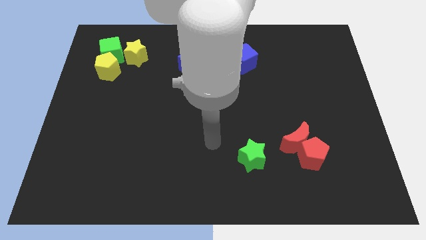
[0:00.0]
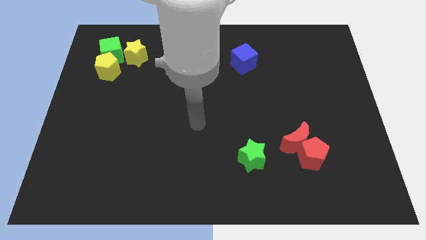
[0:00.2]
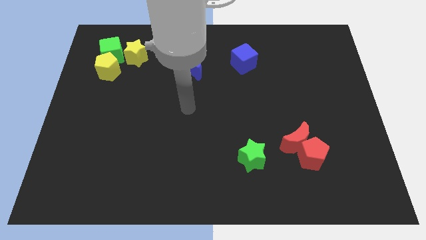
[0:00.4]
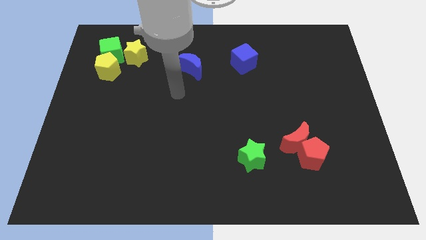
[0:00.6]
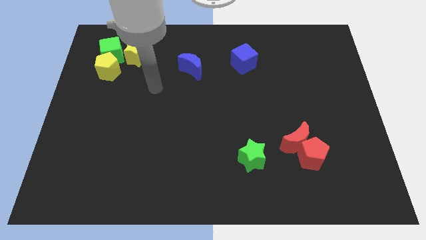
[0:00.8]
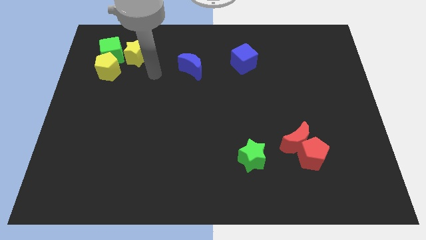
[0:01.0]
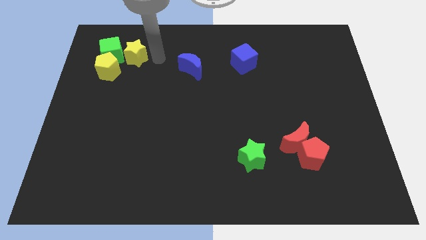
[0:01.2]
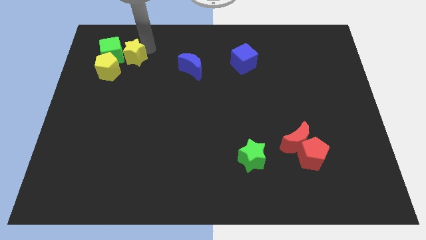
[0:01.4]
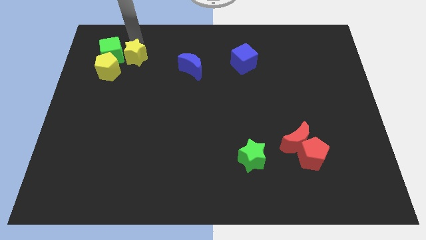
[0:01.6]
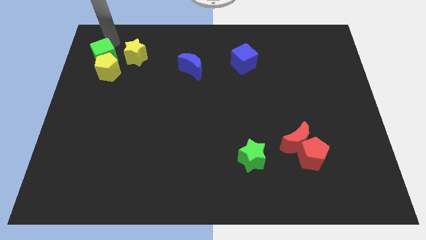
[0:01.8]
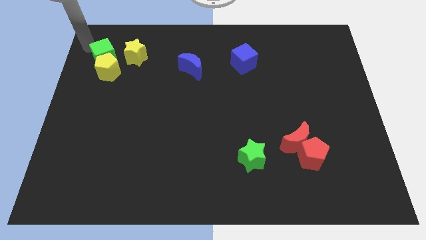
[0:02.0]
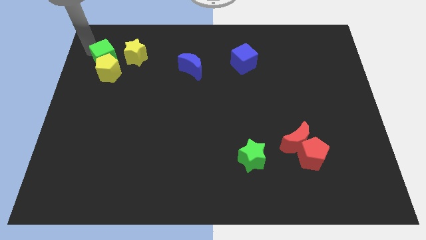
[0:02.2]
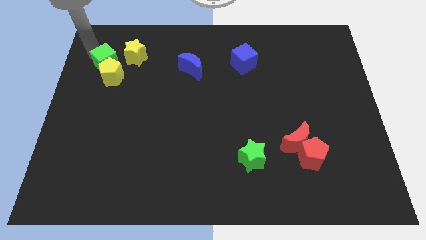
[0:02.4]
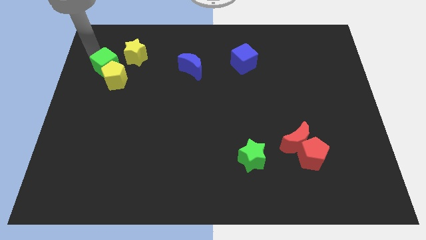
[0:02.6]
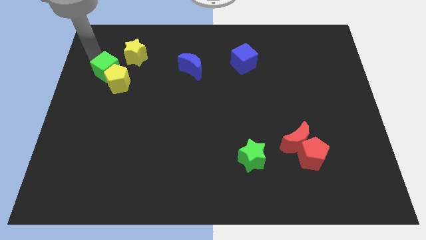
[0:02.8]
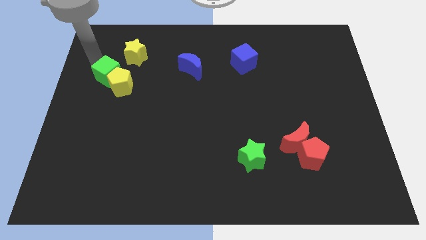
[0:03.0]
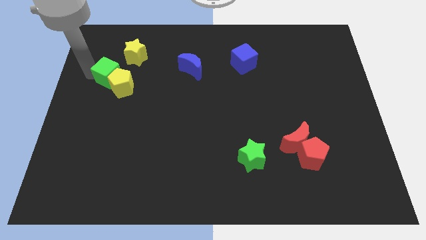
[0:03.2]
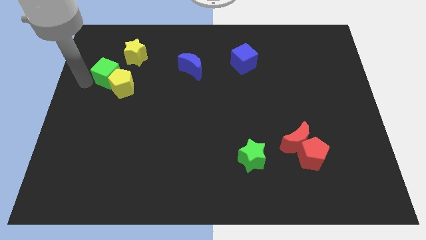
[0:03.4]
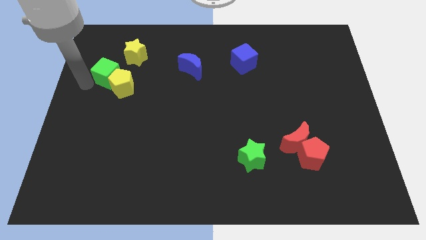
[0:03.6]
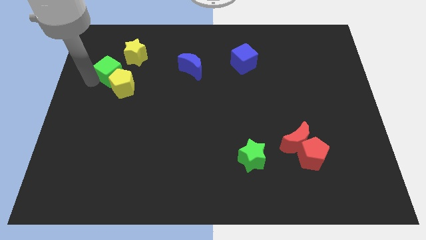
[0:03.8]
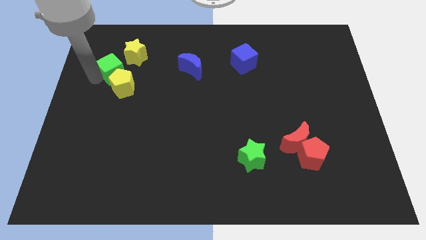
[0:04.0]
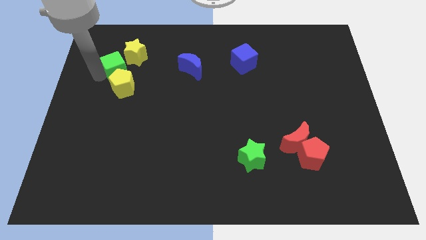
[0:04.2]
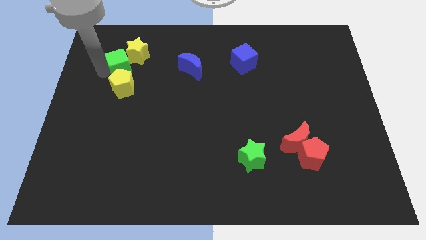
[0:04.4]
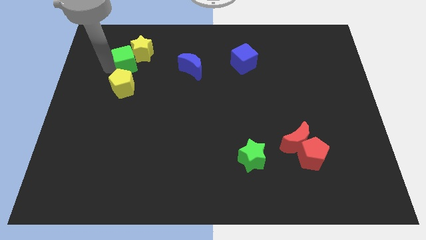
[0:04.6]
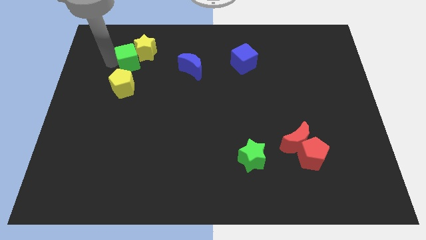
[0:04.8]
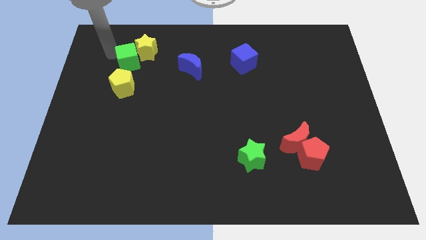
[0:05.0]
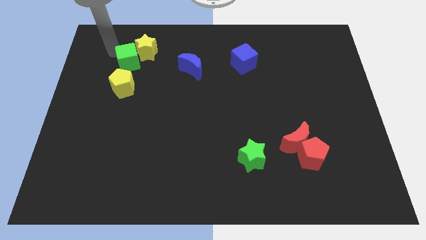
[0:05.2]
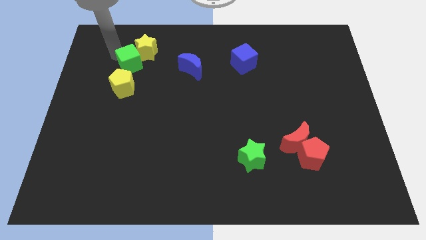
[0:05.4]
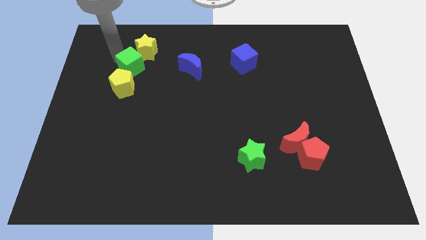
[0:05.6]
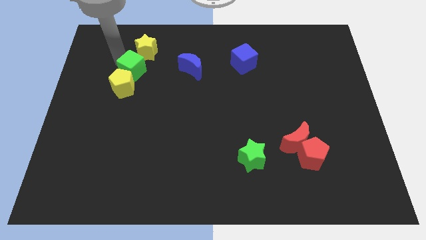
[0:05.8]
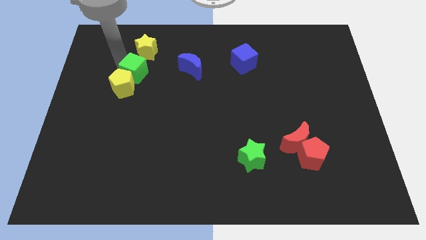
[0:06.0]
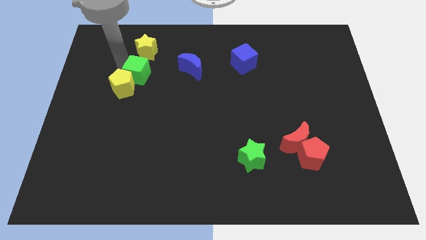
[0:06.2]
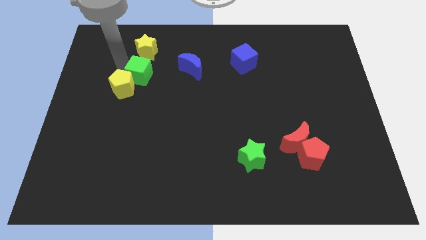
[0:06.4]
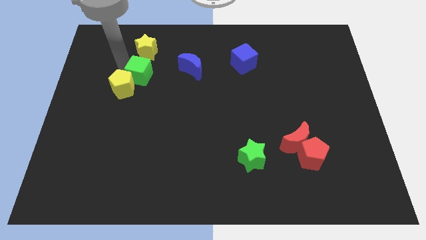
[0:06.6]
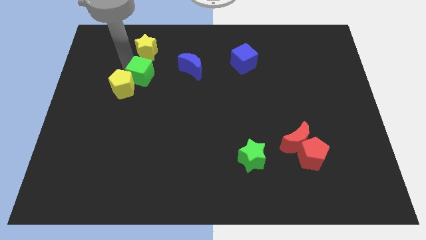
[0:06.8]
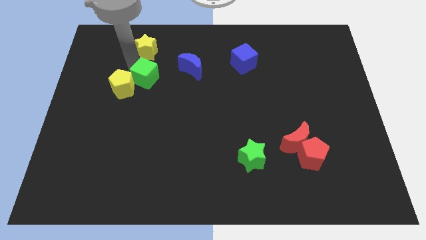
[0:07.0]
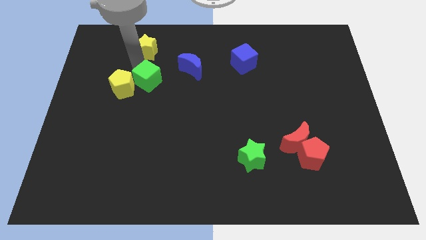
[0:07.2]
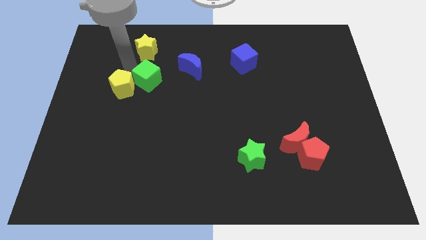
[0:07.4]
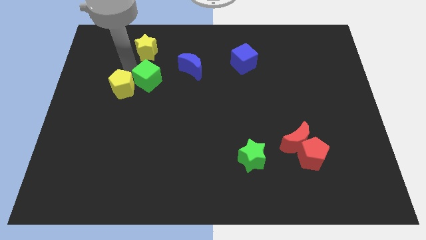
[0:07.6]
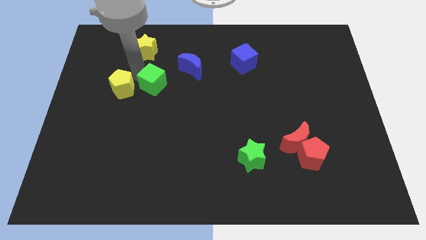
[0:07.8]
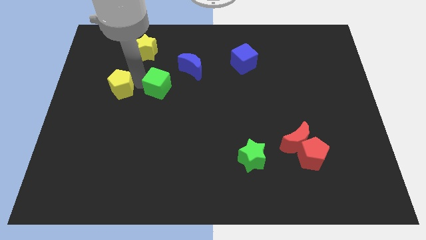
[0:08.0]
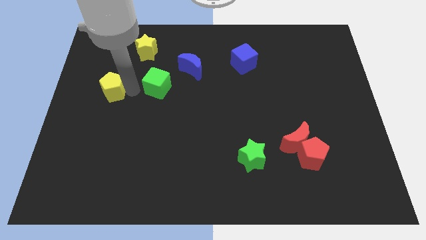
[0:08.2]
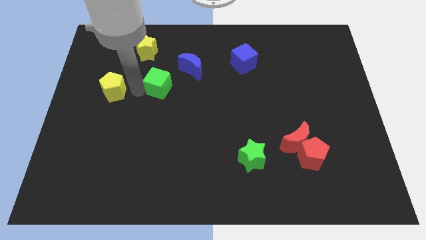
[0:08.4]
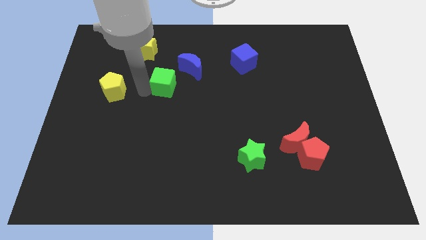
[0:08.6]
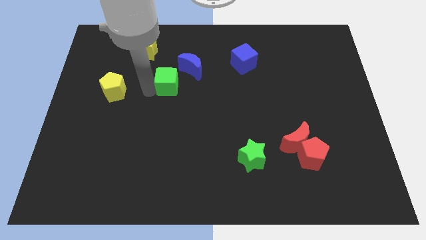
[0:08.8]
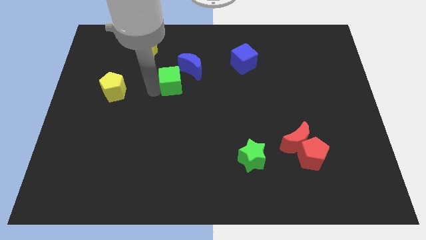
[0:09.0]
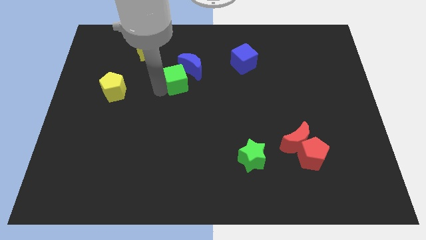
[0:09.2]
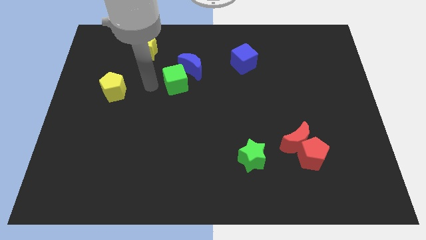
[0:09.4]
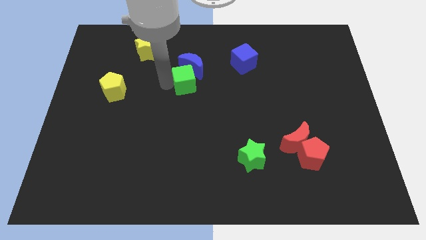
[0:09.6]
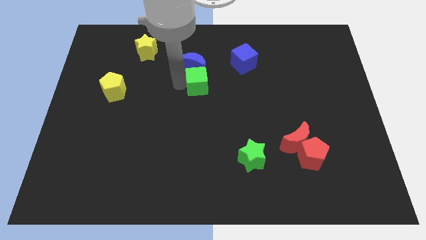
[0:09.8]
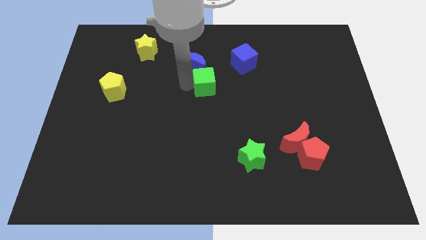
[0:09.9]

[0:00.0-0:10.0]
slide the green cube to the bottom left of the blue cube

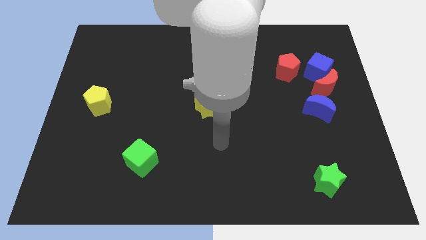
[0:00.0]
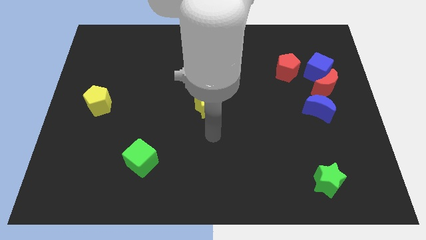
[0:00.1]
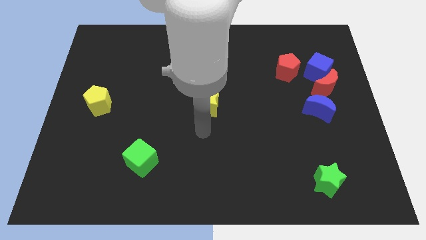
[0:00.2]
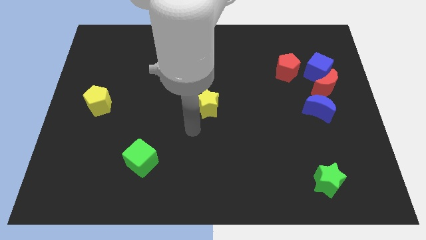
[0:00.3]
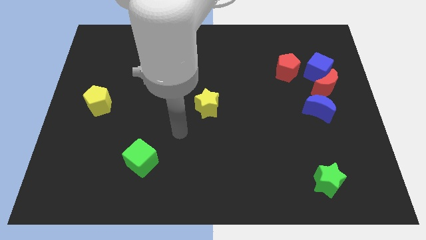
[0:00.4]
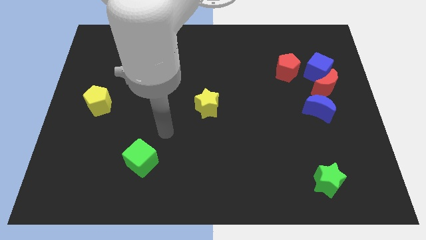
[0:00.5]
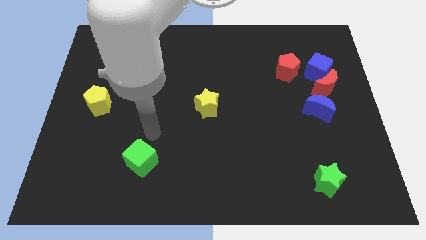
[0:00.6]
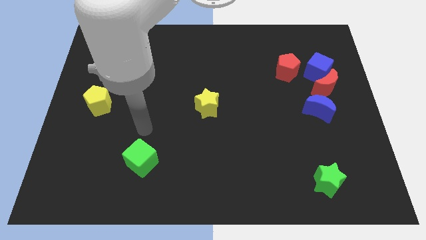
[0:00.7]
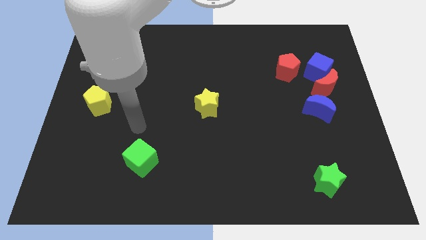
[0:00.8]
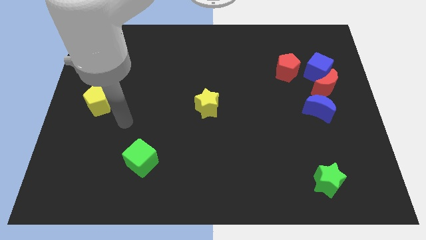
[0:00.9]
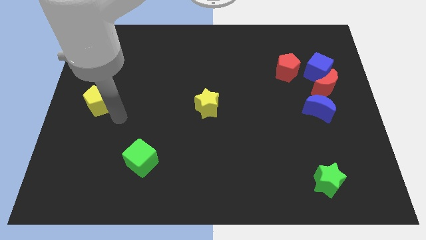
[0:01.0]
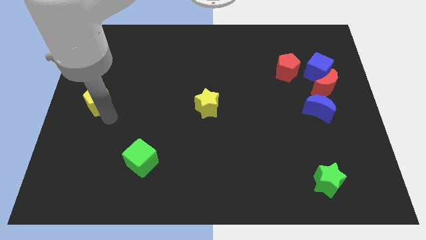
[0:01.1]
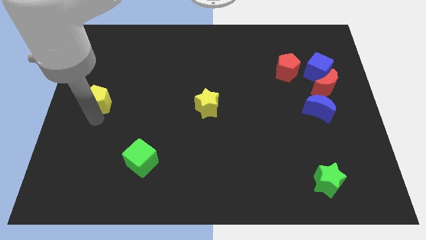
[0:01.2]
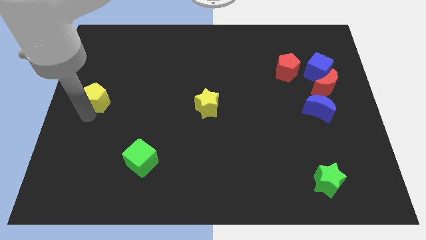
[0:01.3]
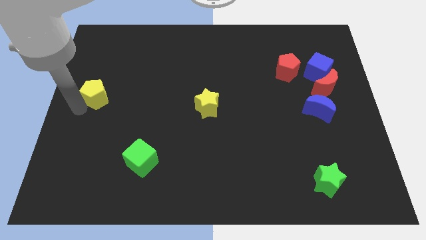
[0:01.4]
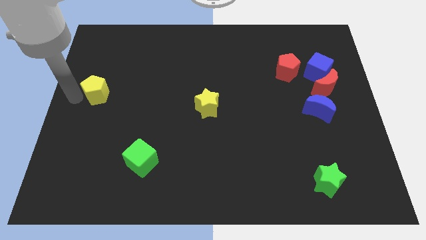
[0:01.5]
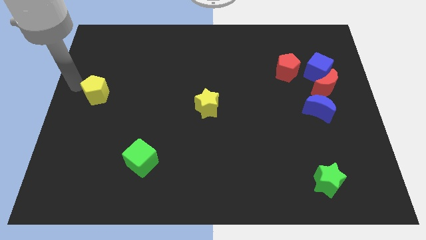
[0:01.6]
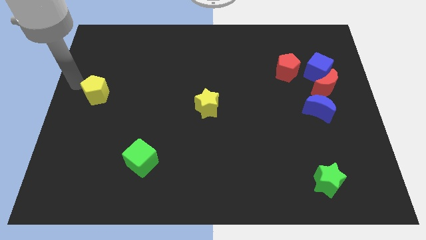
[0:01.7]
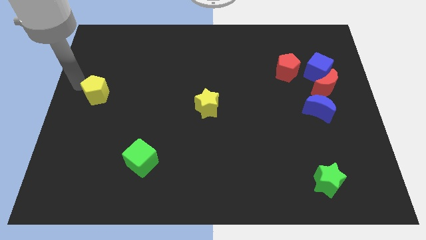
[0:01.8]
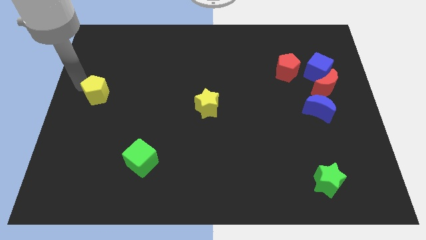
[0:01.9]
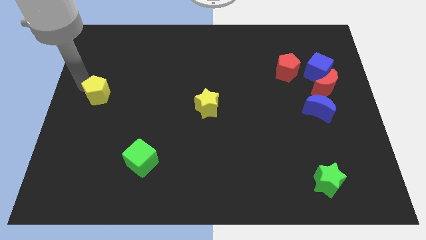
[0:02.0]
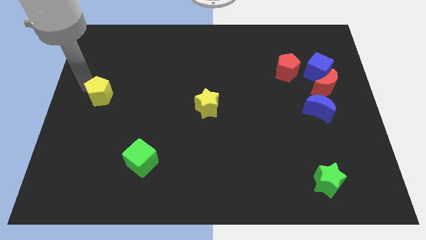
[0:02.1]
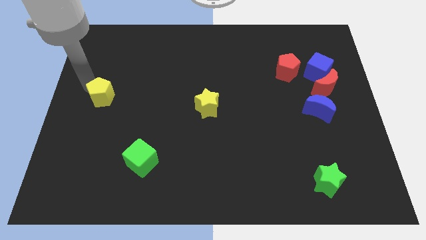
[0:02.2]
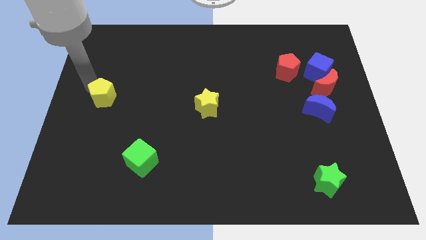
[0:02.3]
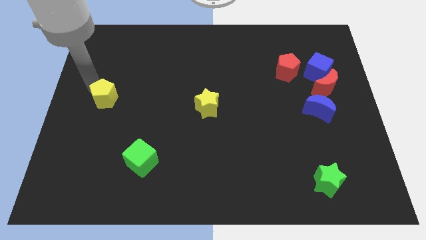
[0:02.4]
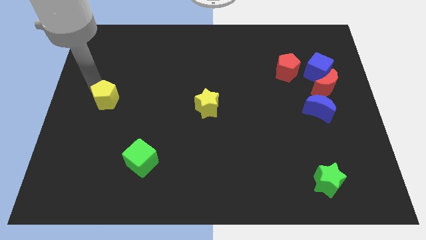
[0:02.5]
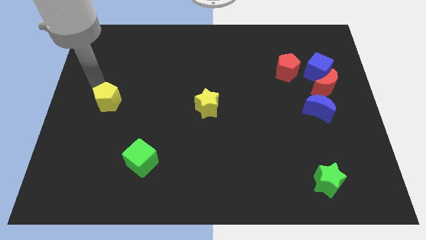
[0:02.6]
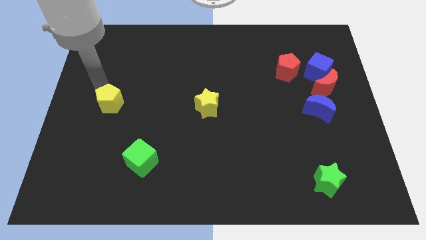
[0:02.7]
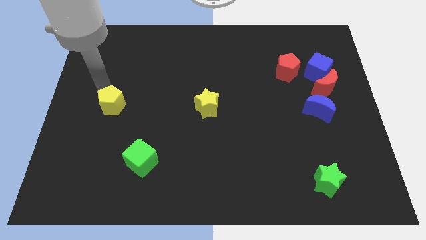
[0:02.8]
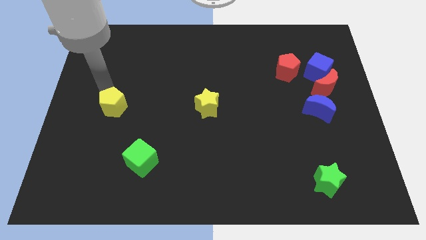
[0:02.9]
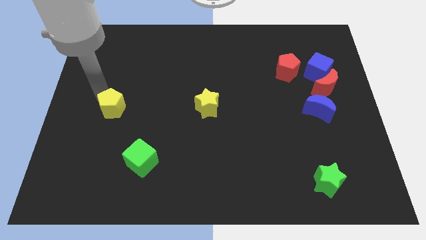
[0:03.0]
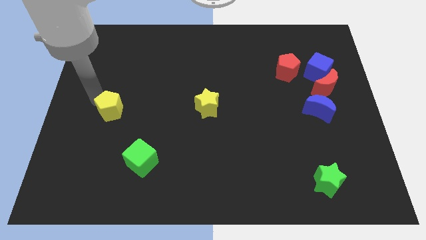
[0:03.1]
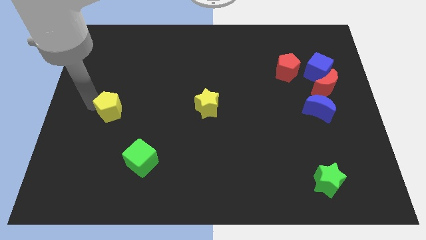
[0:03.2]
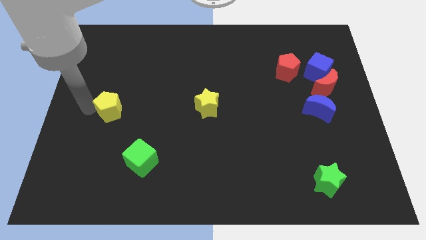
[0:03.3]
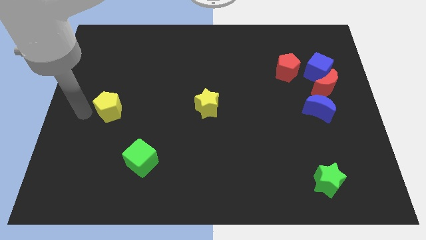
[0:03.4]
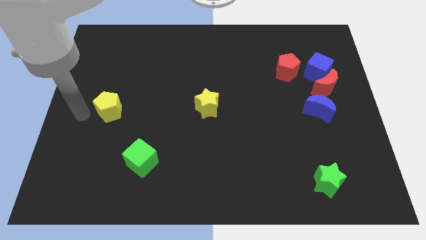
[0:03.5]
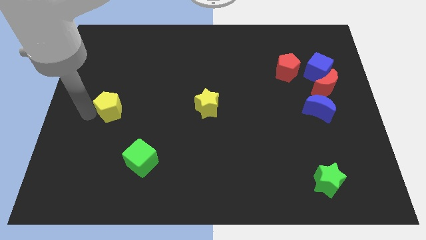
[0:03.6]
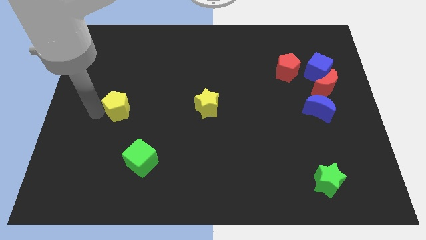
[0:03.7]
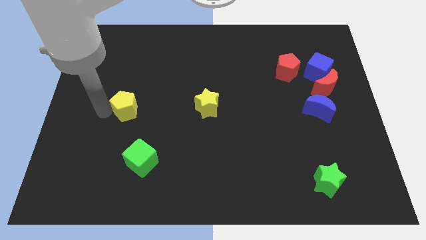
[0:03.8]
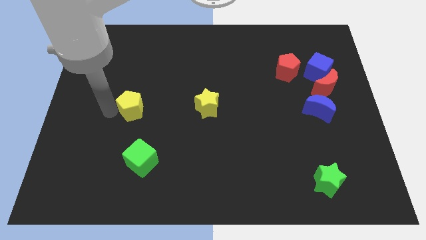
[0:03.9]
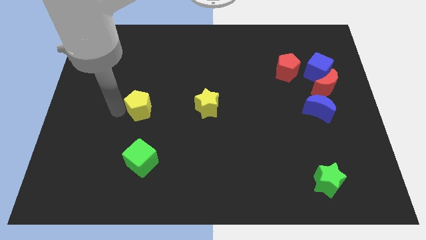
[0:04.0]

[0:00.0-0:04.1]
put the yellow pentagon to the left of the yellow star
